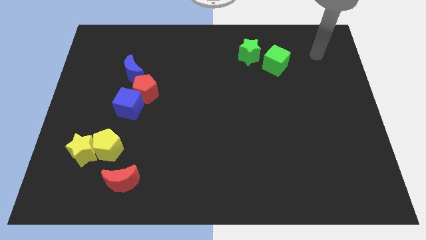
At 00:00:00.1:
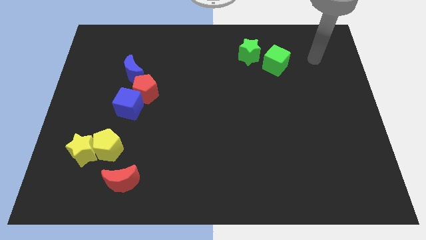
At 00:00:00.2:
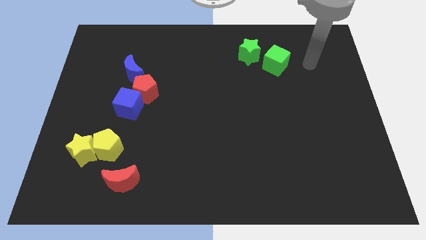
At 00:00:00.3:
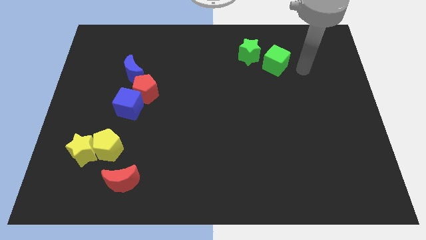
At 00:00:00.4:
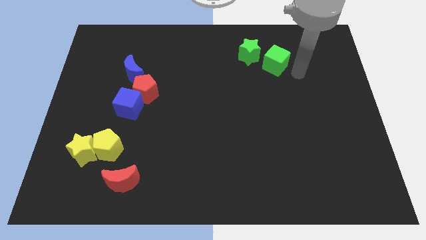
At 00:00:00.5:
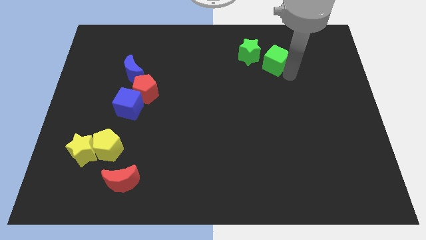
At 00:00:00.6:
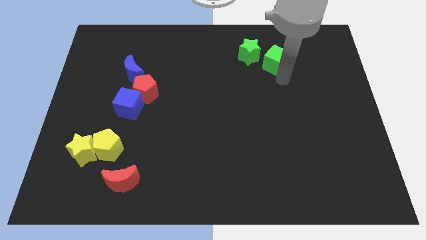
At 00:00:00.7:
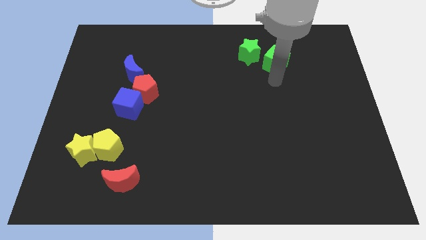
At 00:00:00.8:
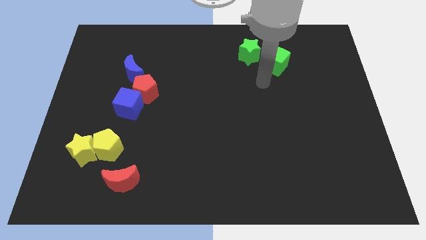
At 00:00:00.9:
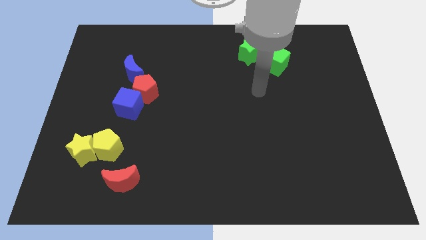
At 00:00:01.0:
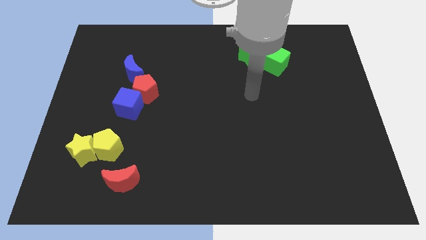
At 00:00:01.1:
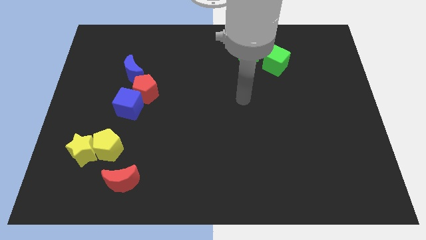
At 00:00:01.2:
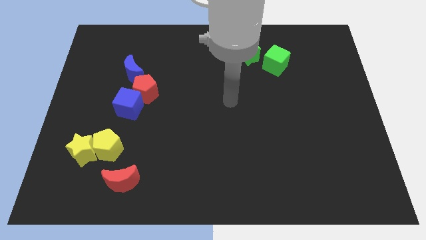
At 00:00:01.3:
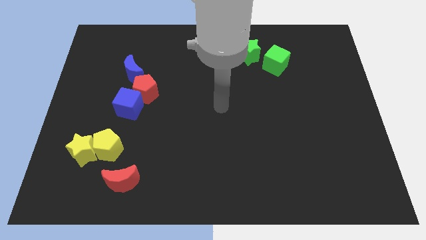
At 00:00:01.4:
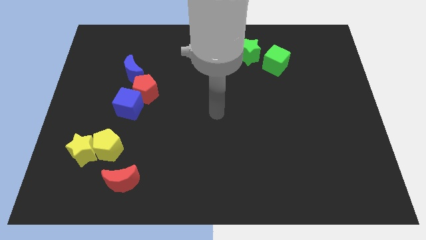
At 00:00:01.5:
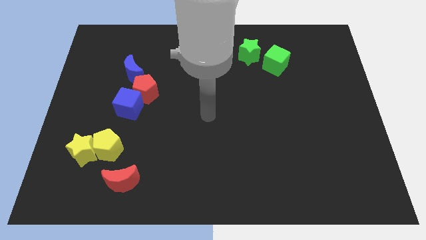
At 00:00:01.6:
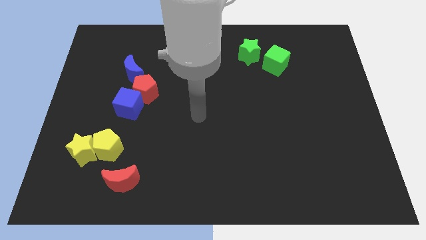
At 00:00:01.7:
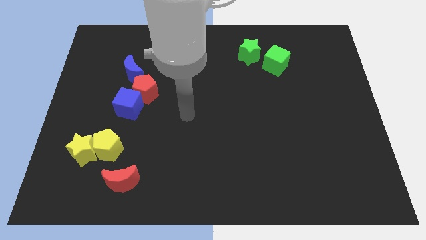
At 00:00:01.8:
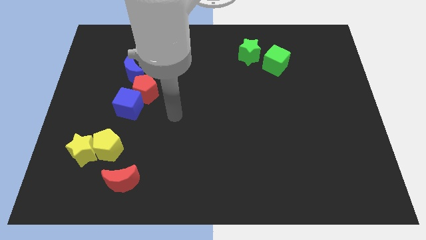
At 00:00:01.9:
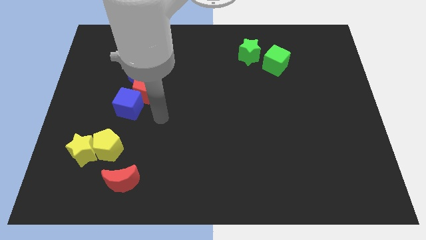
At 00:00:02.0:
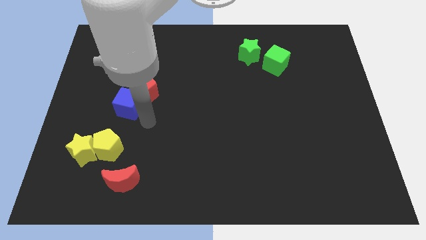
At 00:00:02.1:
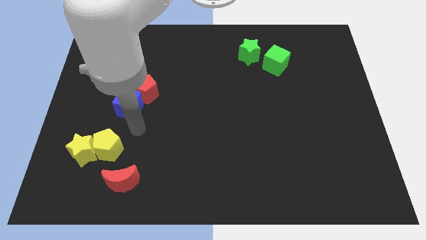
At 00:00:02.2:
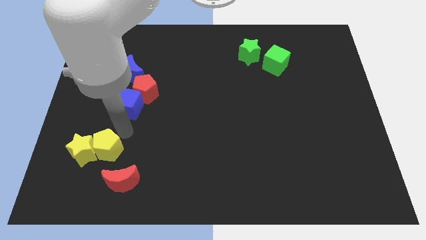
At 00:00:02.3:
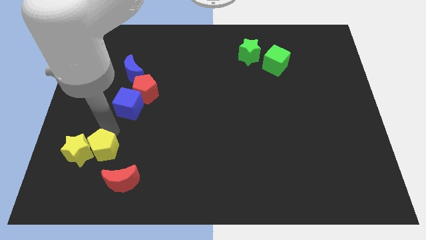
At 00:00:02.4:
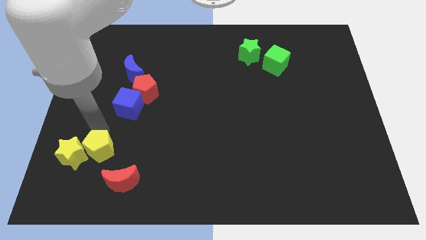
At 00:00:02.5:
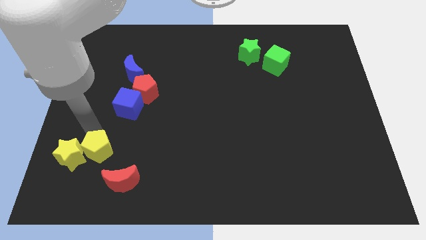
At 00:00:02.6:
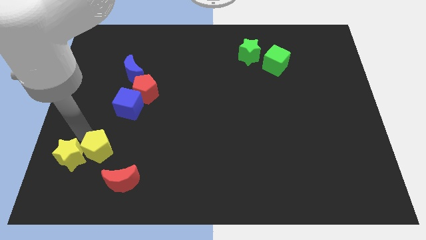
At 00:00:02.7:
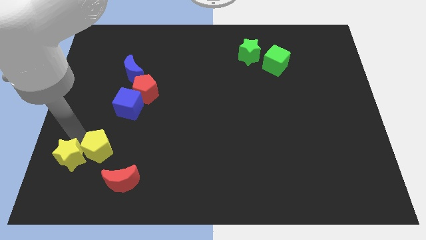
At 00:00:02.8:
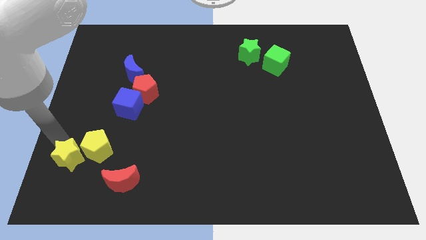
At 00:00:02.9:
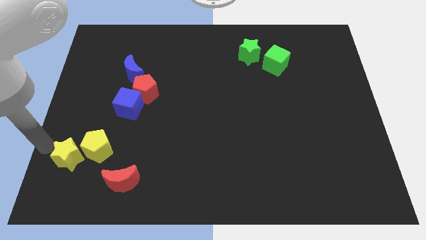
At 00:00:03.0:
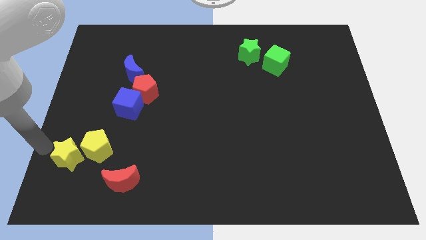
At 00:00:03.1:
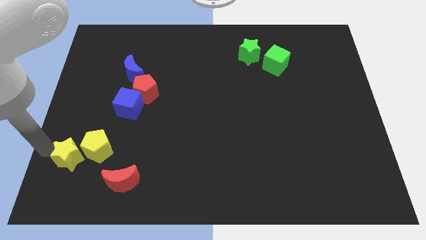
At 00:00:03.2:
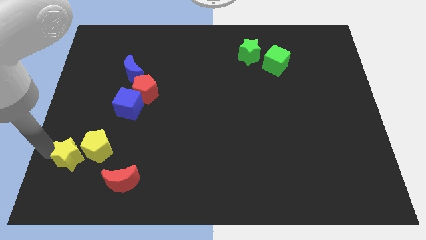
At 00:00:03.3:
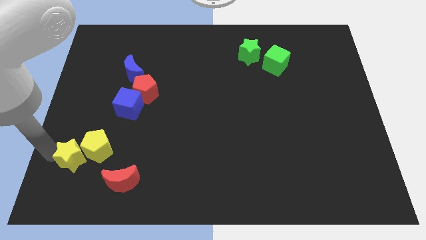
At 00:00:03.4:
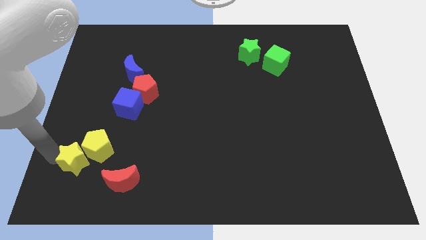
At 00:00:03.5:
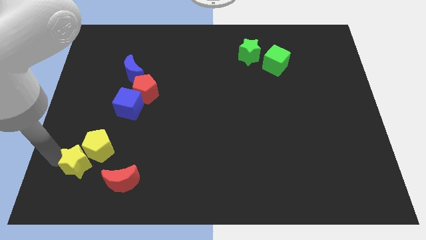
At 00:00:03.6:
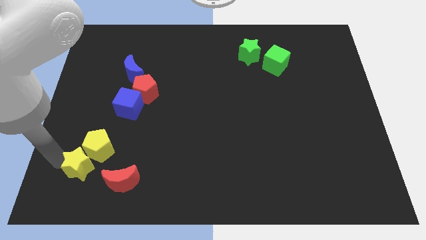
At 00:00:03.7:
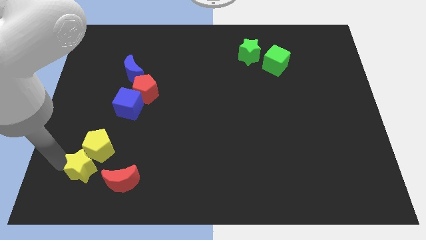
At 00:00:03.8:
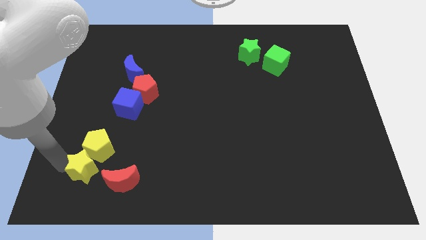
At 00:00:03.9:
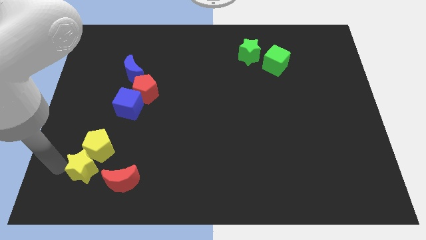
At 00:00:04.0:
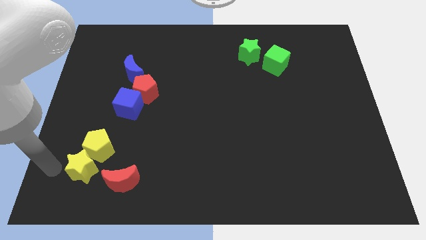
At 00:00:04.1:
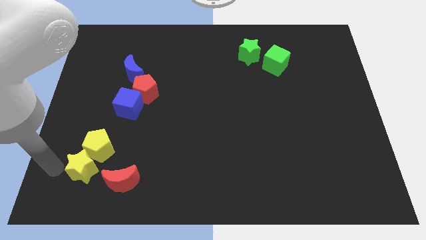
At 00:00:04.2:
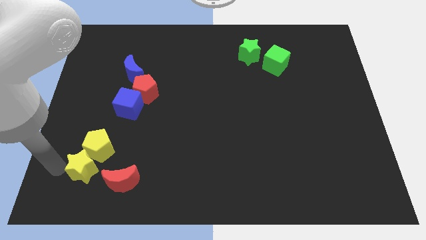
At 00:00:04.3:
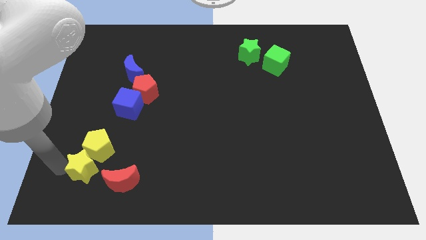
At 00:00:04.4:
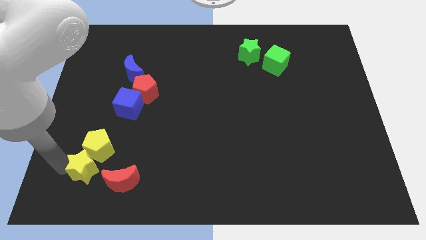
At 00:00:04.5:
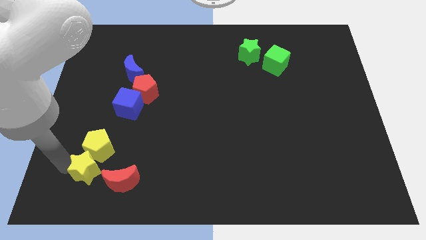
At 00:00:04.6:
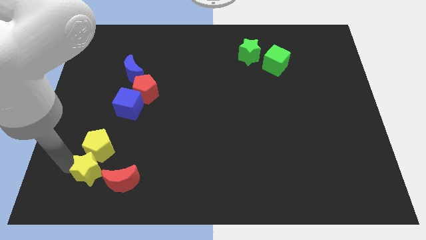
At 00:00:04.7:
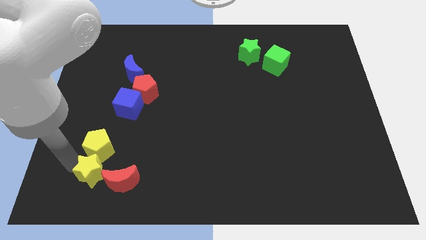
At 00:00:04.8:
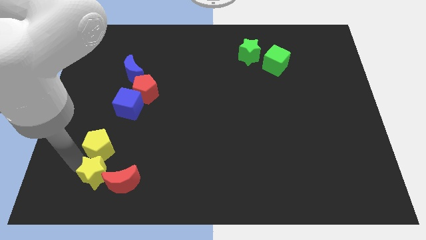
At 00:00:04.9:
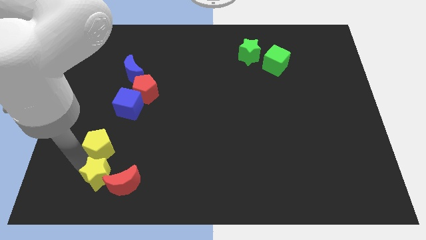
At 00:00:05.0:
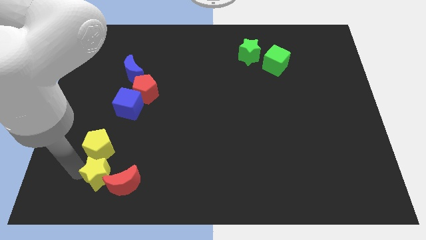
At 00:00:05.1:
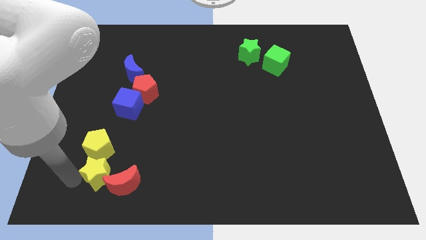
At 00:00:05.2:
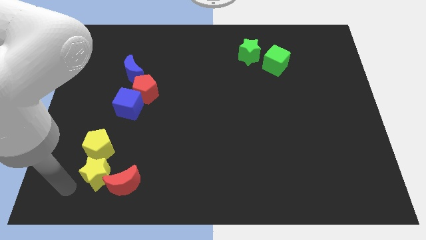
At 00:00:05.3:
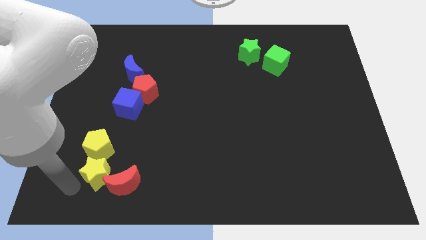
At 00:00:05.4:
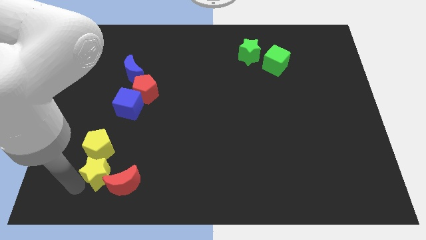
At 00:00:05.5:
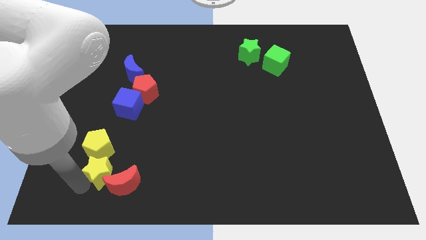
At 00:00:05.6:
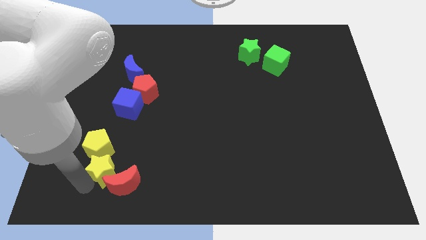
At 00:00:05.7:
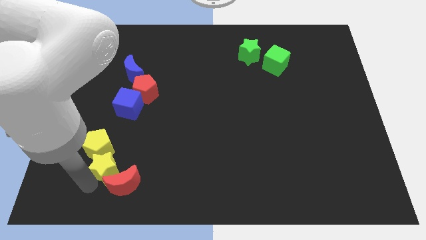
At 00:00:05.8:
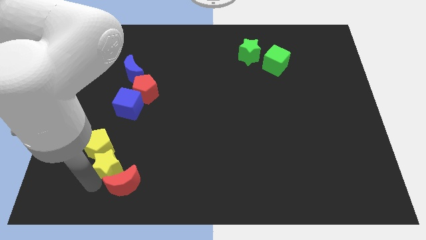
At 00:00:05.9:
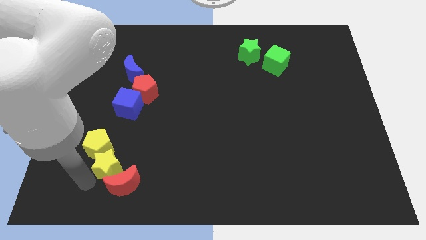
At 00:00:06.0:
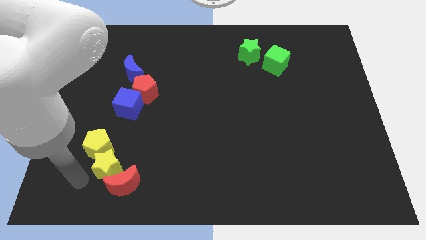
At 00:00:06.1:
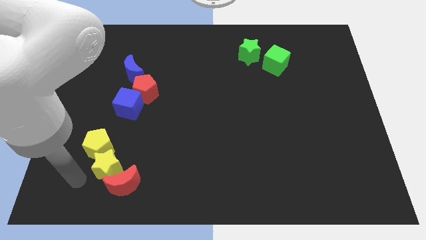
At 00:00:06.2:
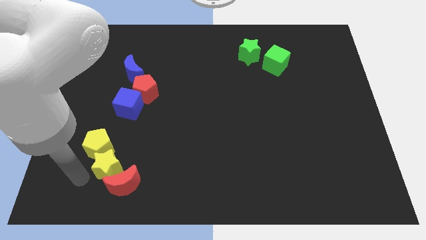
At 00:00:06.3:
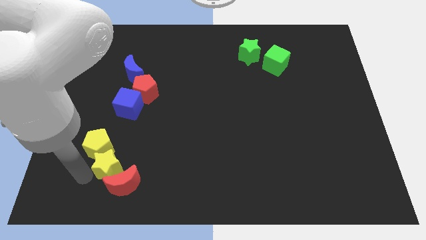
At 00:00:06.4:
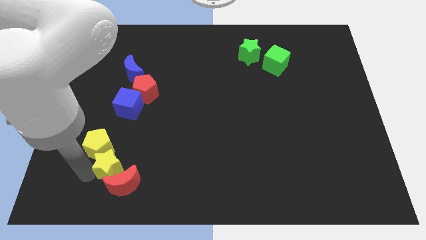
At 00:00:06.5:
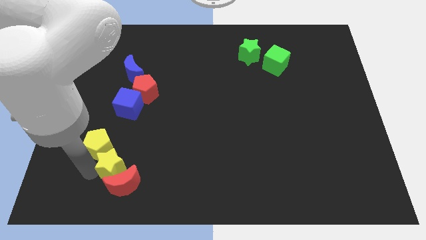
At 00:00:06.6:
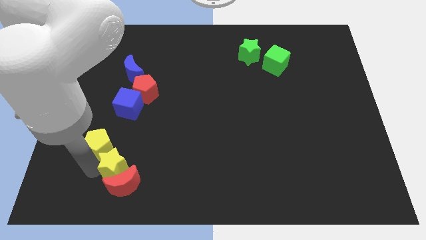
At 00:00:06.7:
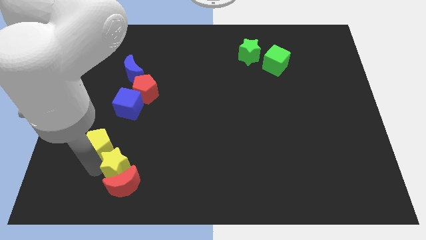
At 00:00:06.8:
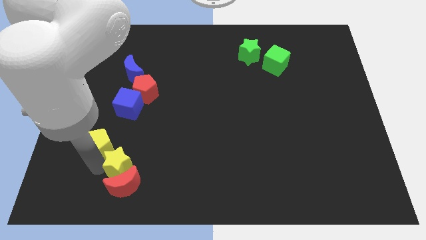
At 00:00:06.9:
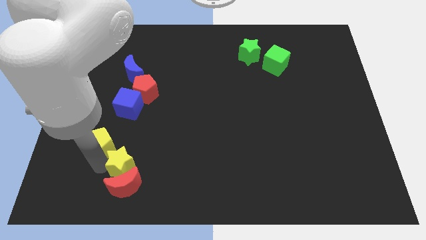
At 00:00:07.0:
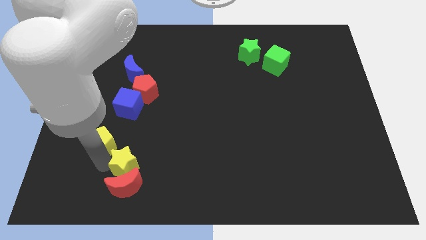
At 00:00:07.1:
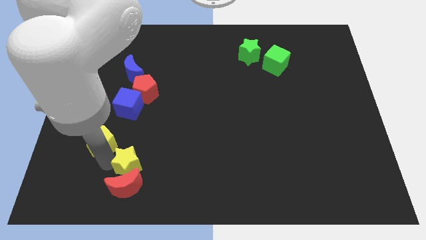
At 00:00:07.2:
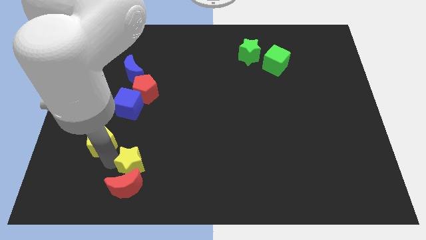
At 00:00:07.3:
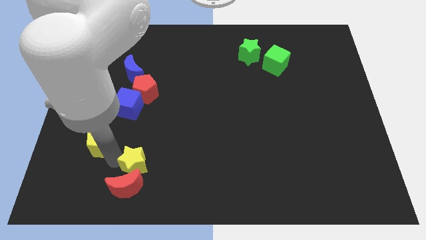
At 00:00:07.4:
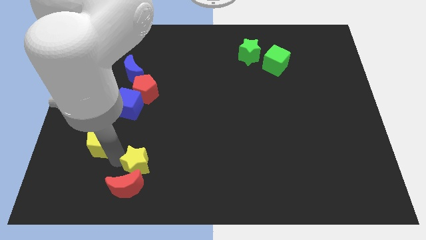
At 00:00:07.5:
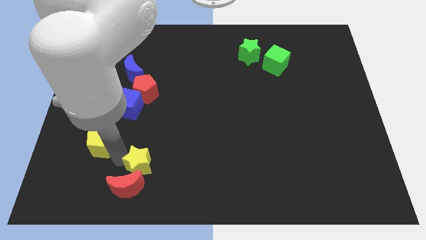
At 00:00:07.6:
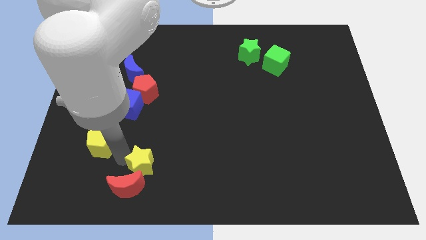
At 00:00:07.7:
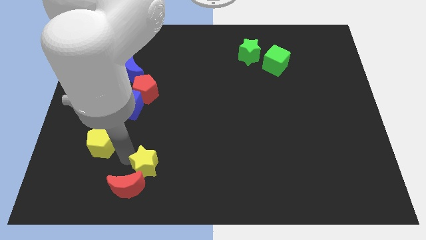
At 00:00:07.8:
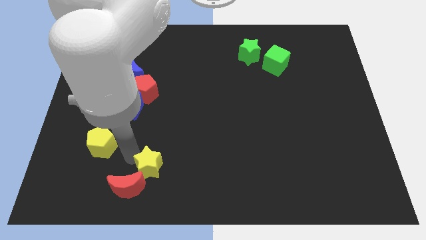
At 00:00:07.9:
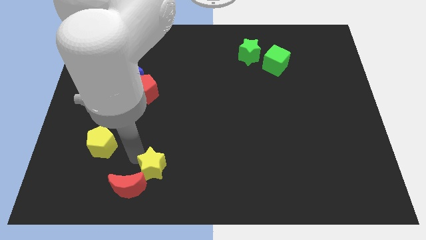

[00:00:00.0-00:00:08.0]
slide the yellow star to the right side of the red moon
